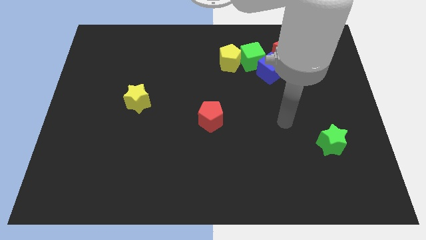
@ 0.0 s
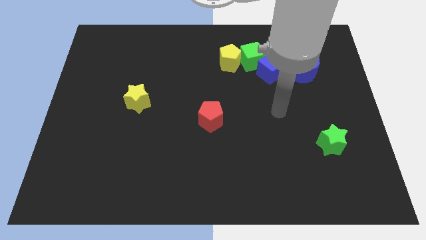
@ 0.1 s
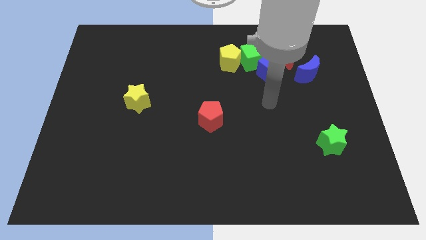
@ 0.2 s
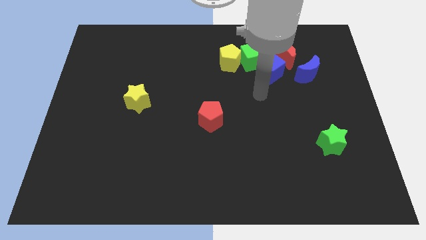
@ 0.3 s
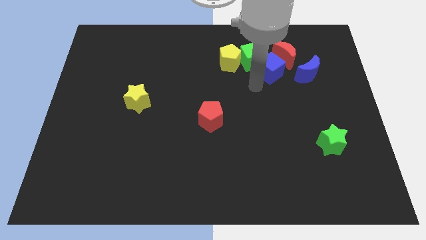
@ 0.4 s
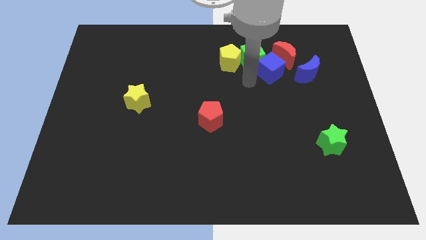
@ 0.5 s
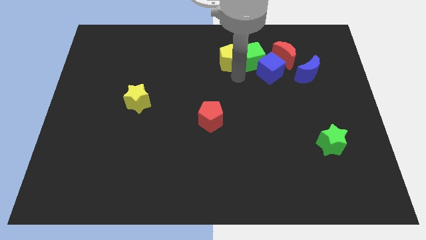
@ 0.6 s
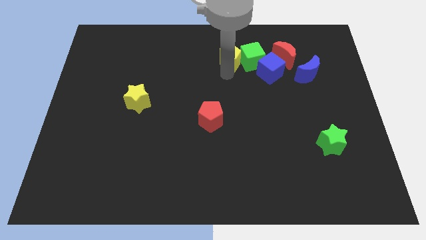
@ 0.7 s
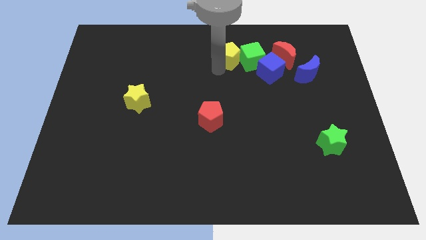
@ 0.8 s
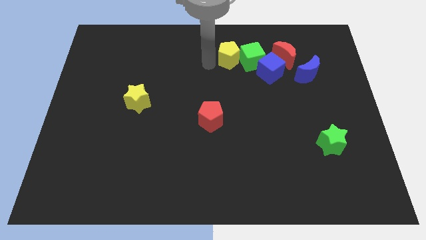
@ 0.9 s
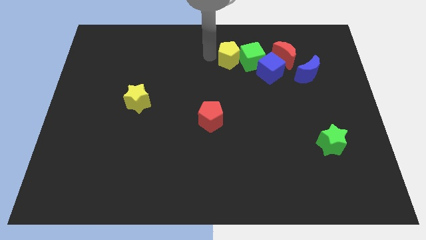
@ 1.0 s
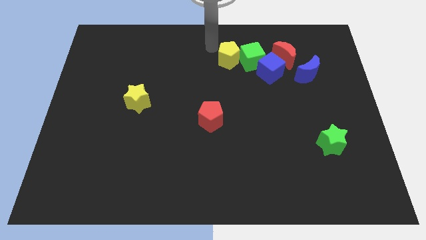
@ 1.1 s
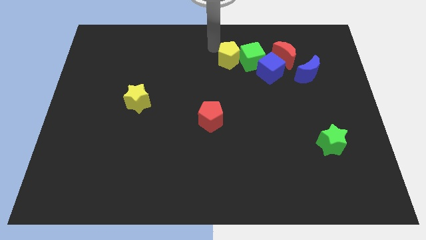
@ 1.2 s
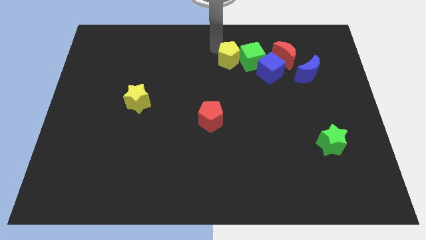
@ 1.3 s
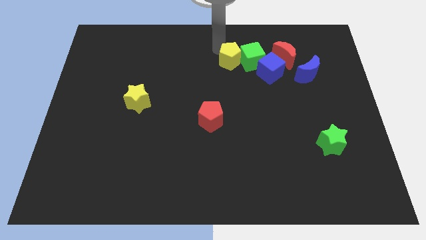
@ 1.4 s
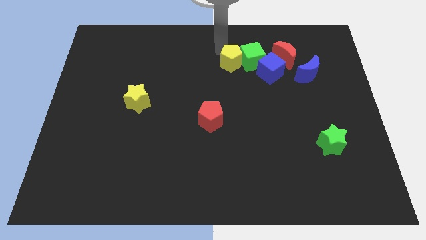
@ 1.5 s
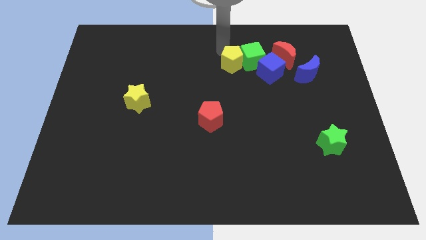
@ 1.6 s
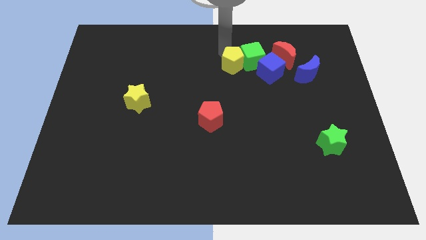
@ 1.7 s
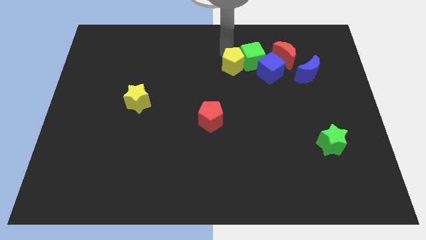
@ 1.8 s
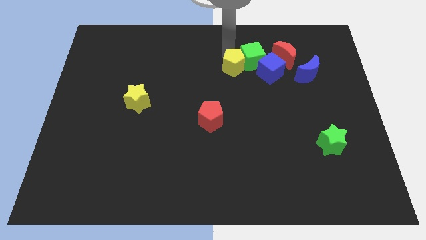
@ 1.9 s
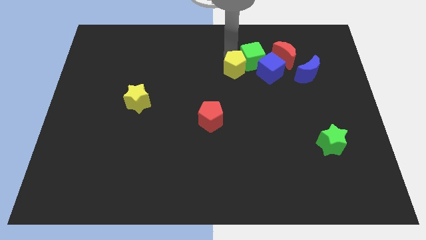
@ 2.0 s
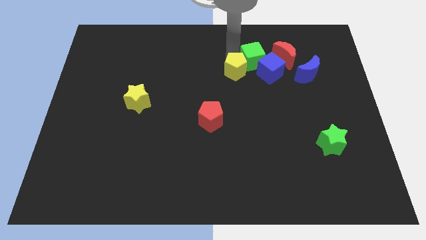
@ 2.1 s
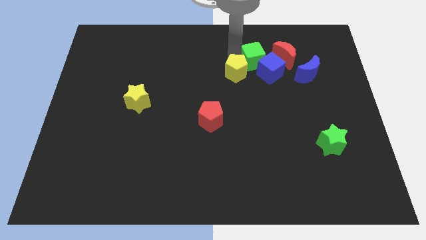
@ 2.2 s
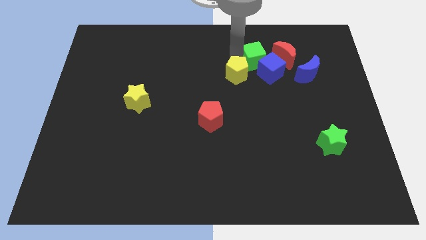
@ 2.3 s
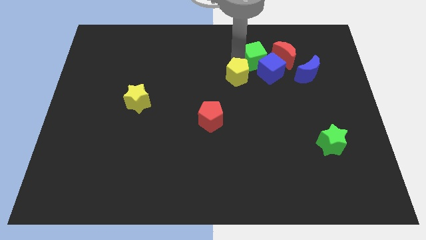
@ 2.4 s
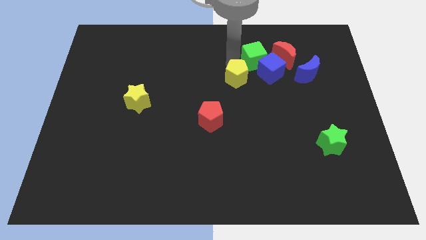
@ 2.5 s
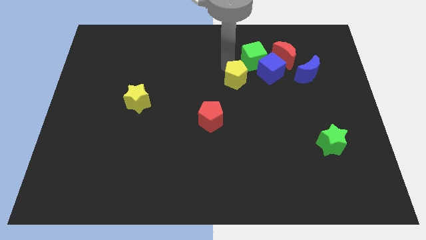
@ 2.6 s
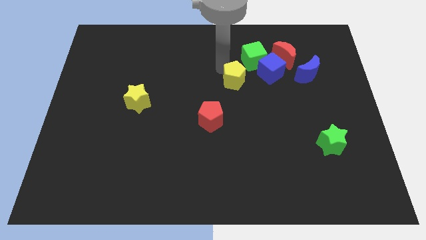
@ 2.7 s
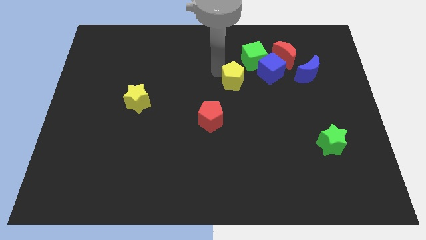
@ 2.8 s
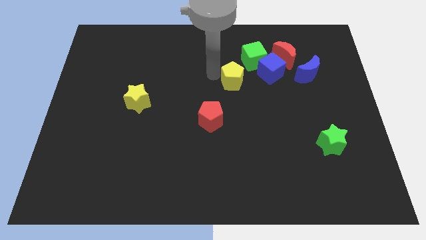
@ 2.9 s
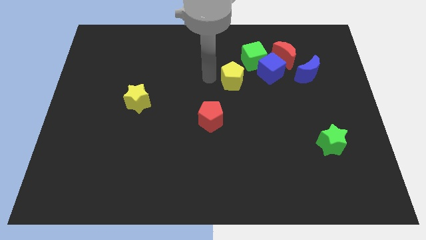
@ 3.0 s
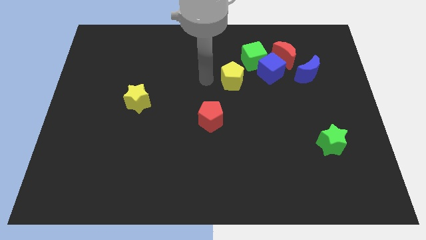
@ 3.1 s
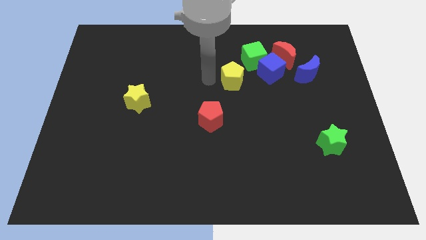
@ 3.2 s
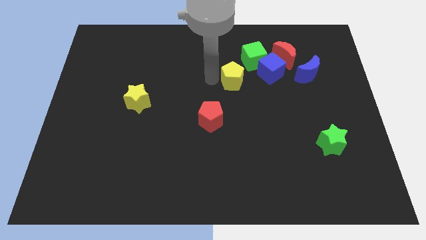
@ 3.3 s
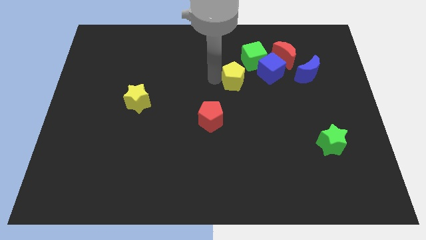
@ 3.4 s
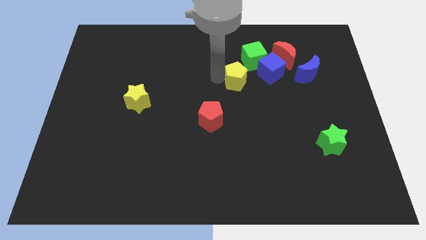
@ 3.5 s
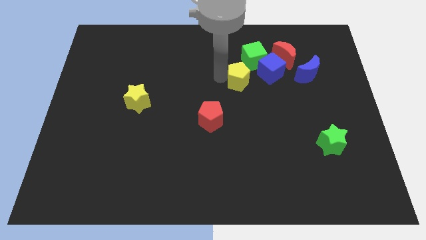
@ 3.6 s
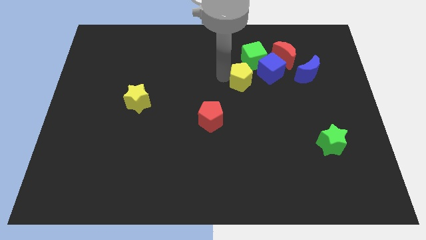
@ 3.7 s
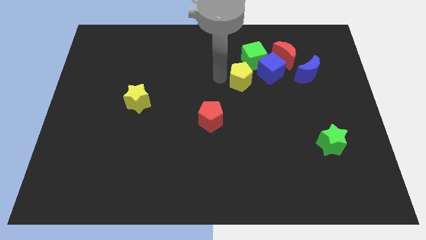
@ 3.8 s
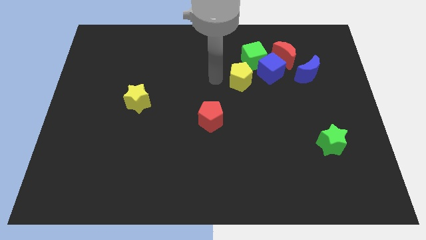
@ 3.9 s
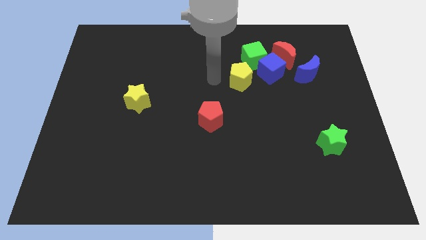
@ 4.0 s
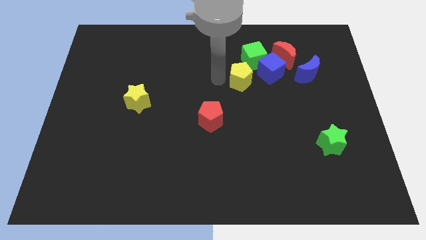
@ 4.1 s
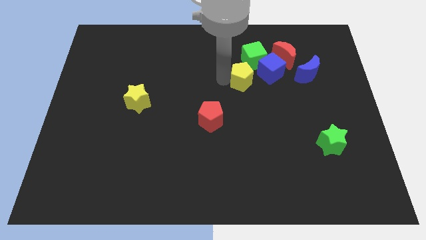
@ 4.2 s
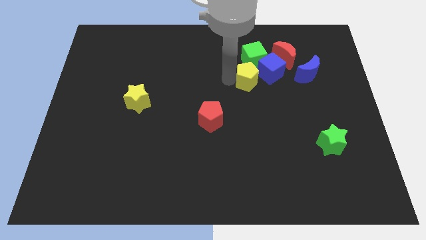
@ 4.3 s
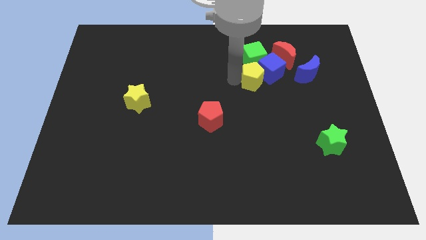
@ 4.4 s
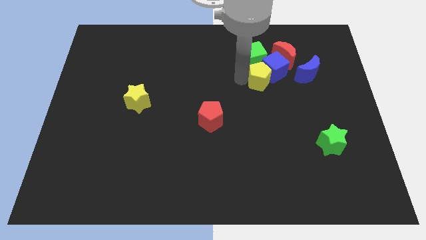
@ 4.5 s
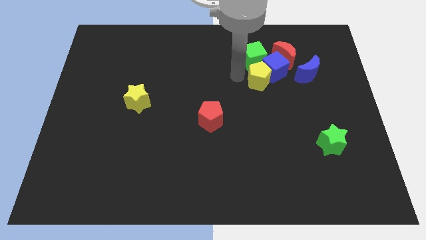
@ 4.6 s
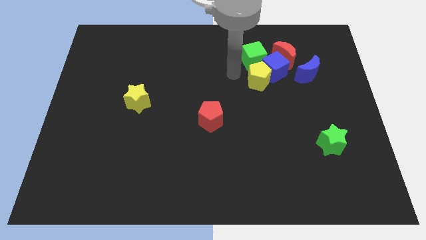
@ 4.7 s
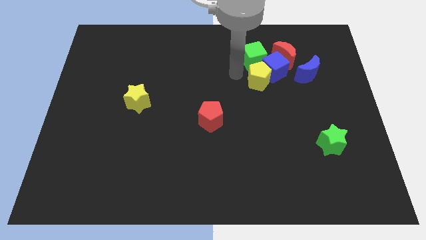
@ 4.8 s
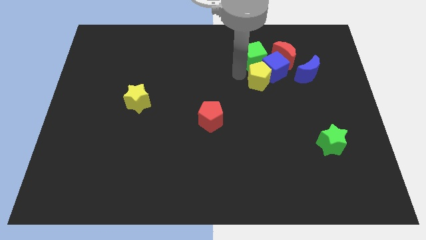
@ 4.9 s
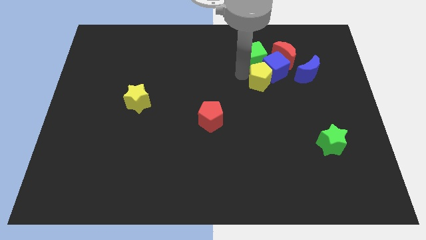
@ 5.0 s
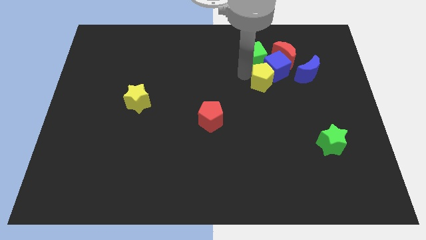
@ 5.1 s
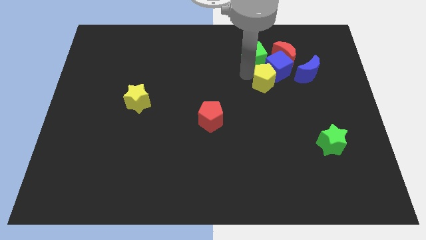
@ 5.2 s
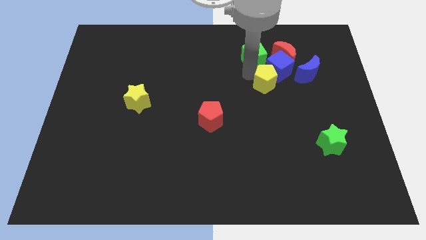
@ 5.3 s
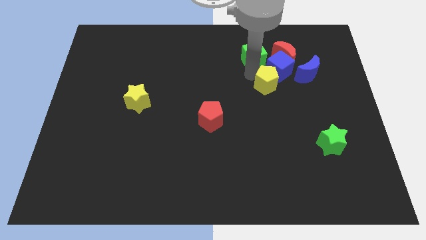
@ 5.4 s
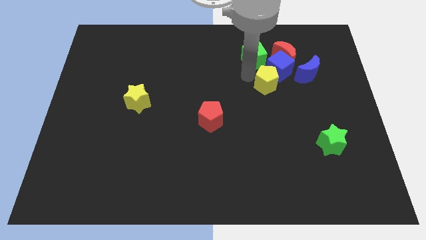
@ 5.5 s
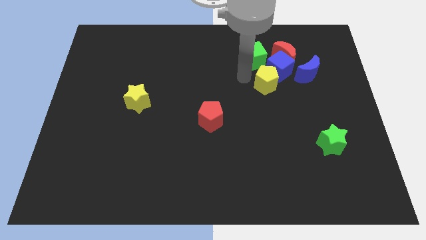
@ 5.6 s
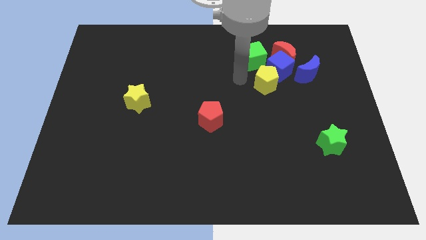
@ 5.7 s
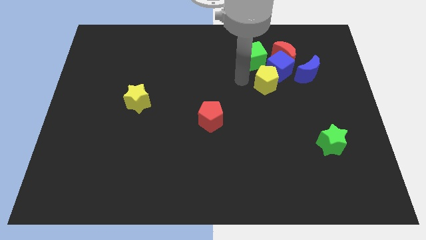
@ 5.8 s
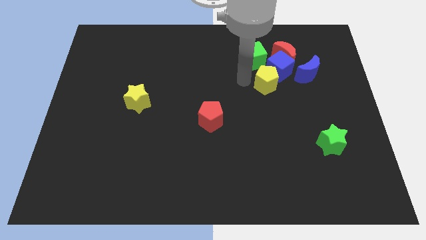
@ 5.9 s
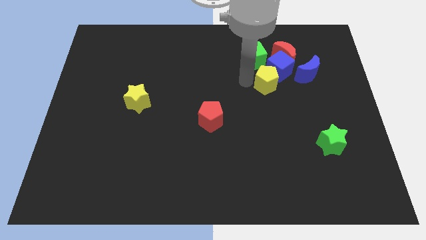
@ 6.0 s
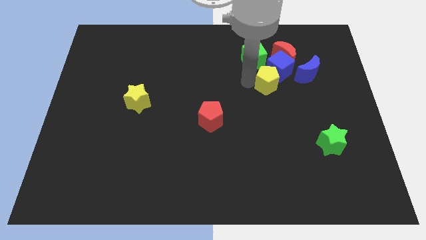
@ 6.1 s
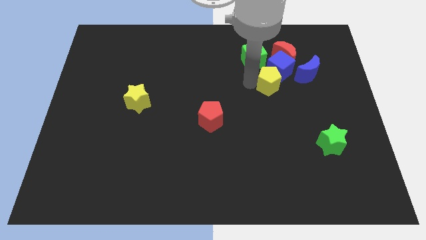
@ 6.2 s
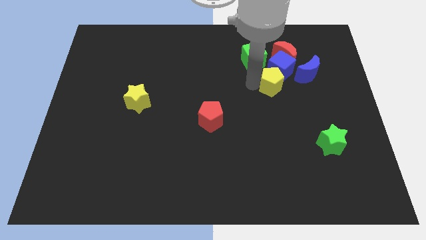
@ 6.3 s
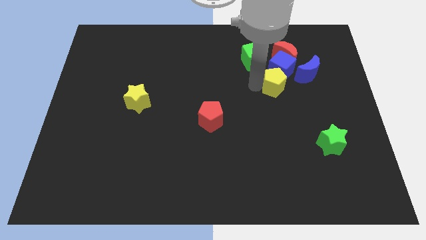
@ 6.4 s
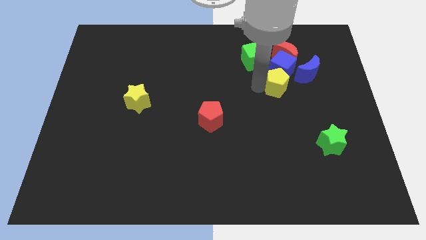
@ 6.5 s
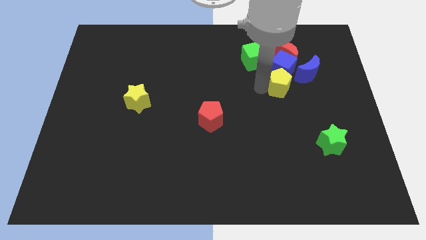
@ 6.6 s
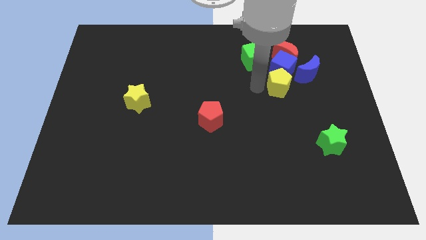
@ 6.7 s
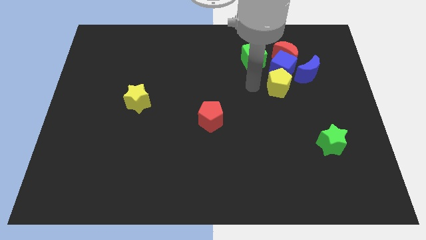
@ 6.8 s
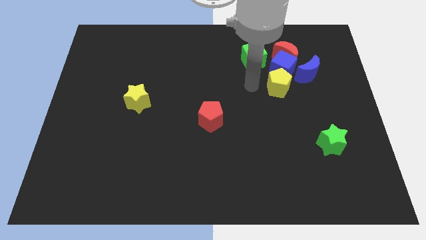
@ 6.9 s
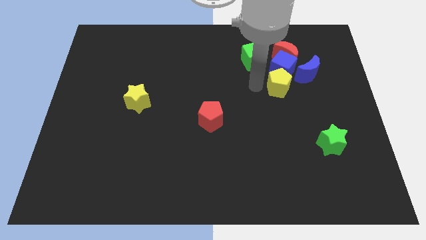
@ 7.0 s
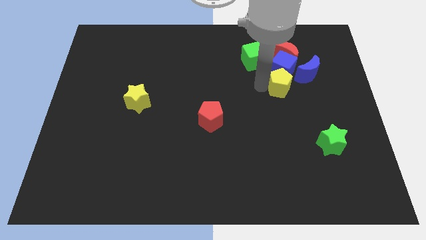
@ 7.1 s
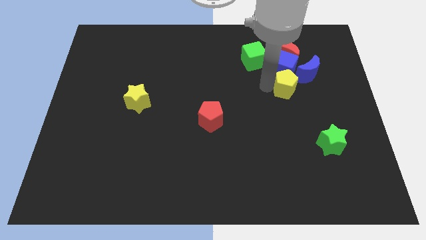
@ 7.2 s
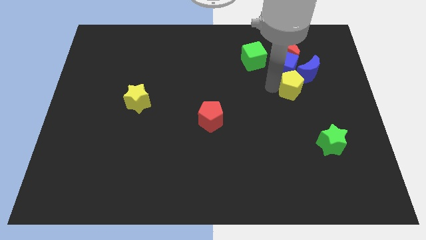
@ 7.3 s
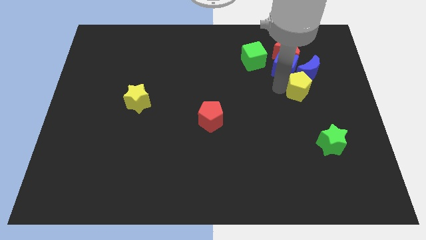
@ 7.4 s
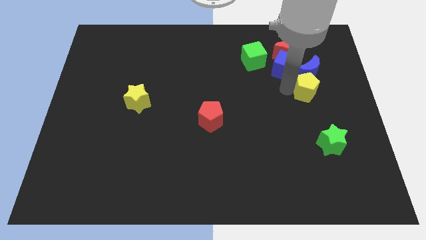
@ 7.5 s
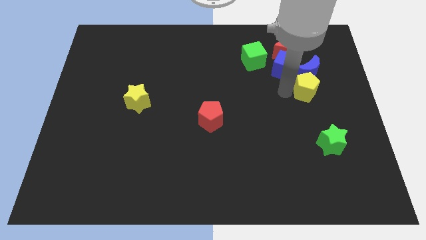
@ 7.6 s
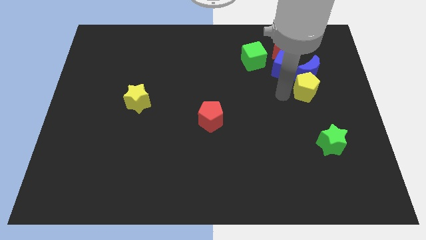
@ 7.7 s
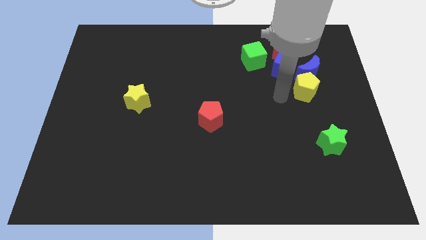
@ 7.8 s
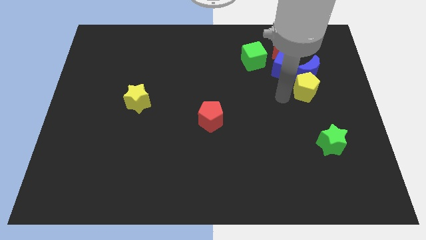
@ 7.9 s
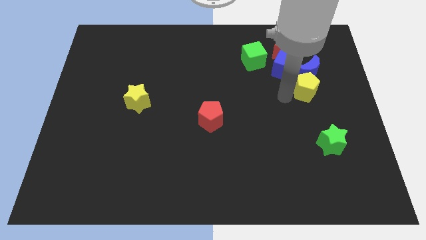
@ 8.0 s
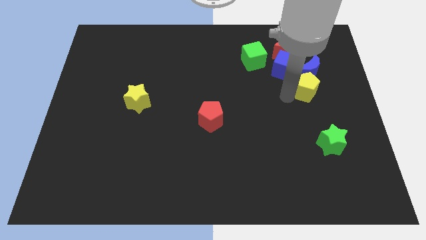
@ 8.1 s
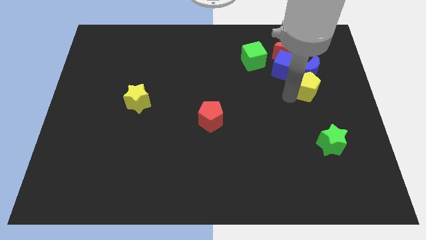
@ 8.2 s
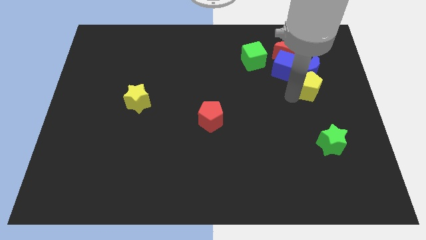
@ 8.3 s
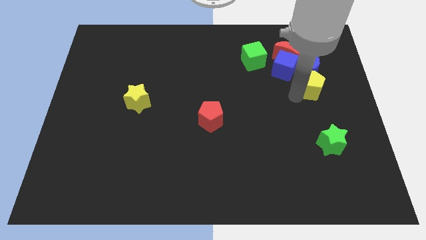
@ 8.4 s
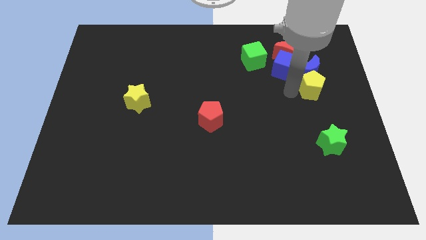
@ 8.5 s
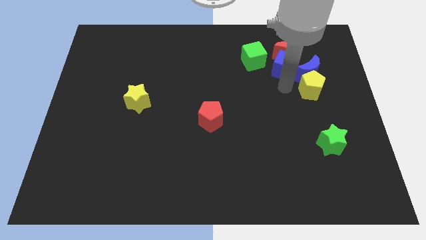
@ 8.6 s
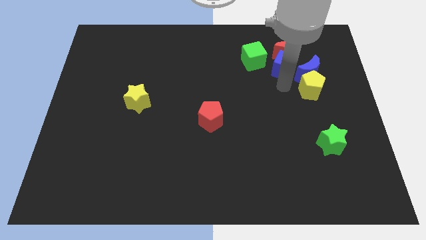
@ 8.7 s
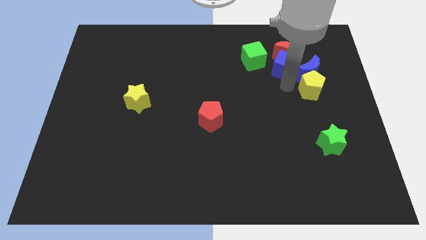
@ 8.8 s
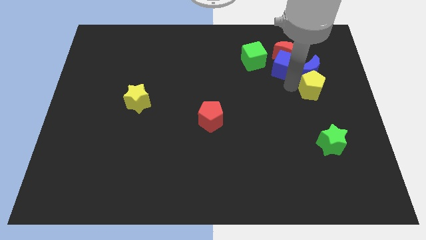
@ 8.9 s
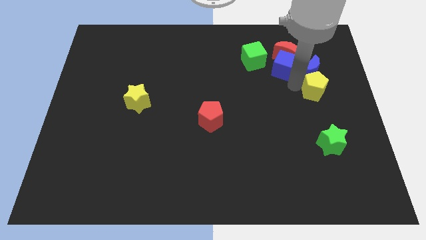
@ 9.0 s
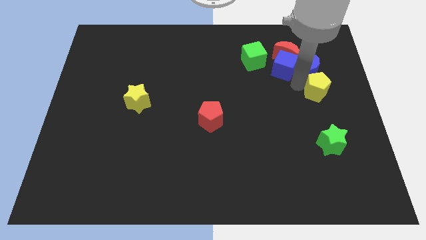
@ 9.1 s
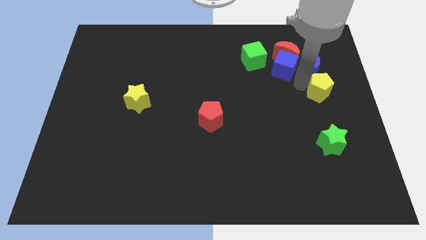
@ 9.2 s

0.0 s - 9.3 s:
put the yellow pentagon to the right side of the board
